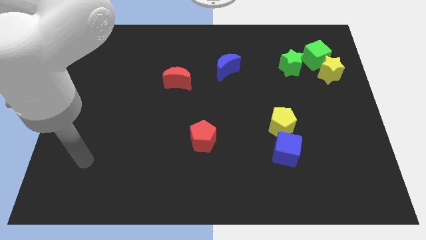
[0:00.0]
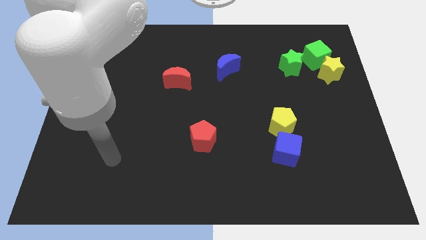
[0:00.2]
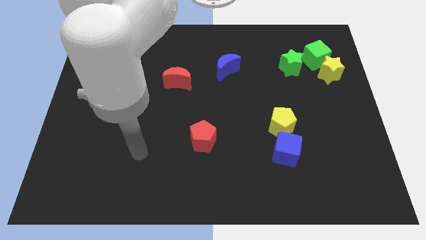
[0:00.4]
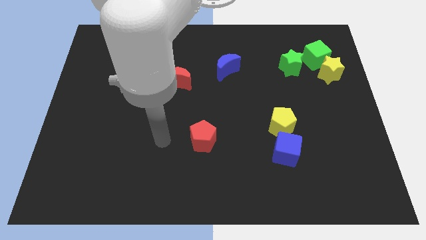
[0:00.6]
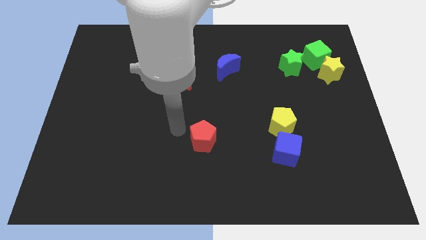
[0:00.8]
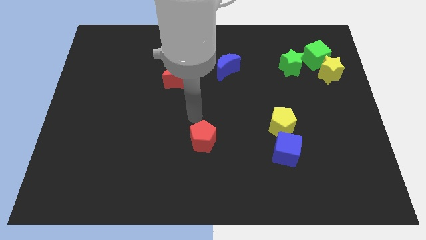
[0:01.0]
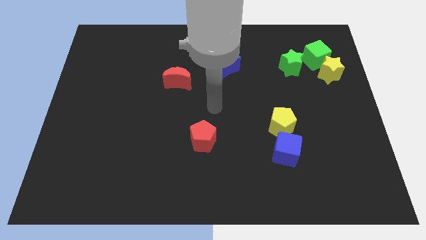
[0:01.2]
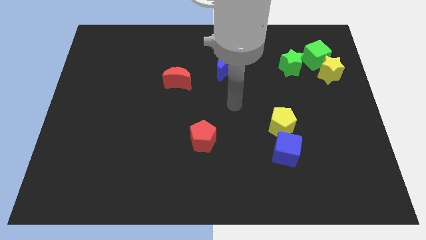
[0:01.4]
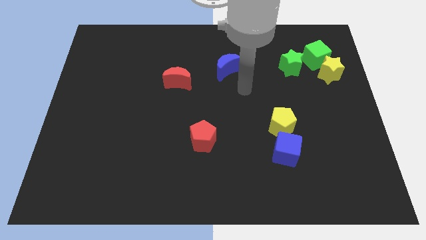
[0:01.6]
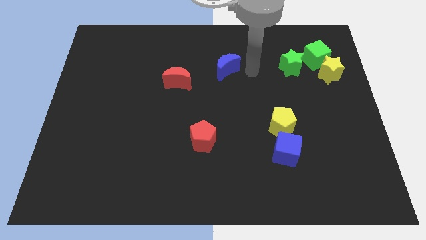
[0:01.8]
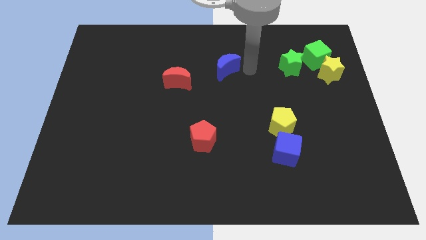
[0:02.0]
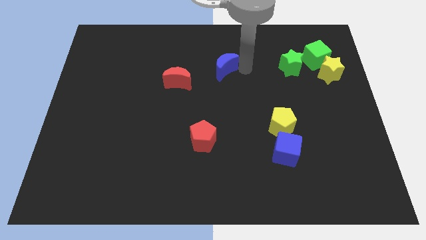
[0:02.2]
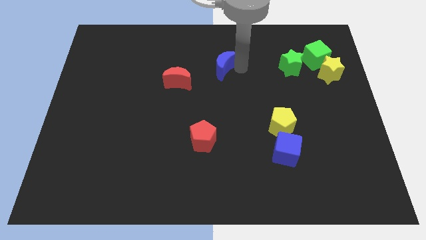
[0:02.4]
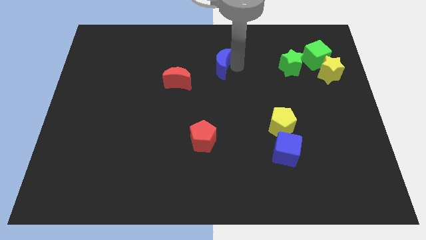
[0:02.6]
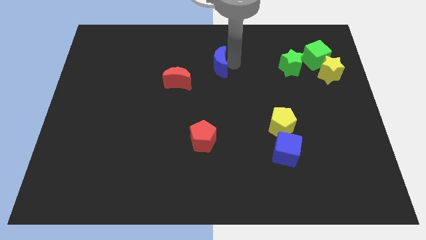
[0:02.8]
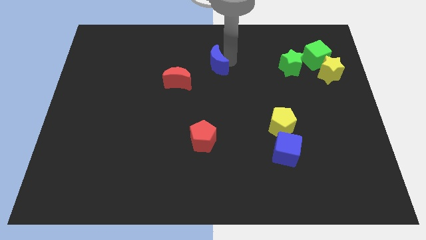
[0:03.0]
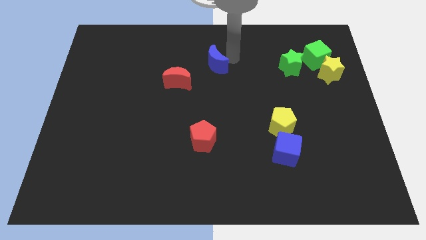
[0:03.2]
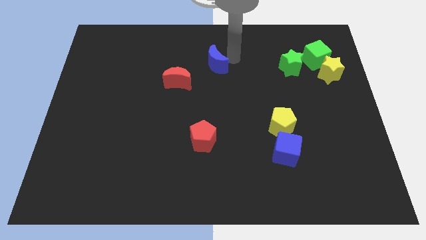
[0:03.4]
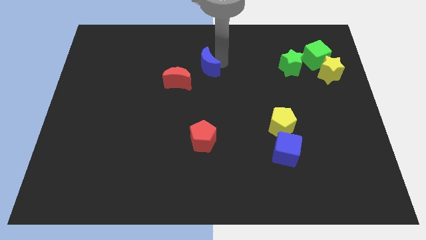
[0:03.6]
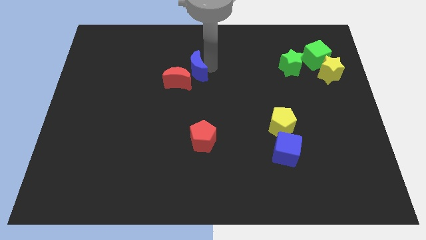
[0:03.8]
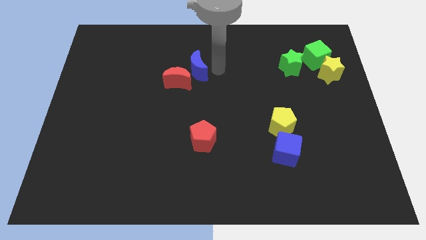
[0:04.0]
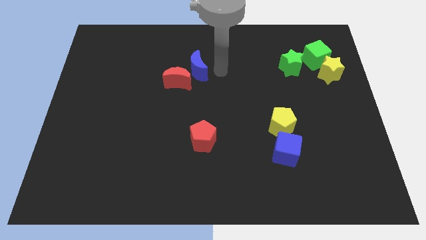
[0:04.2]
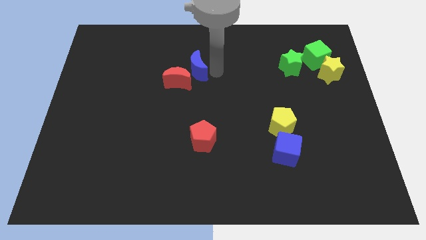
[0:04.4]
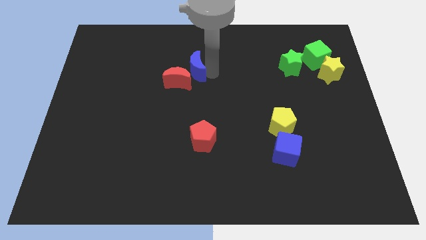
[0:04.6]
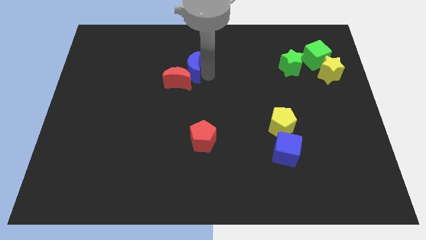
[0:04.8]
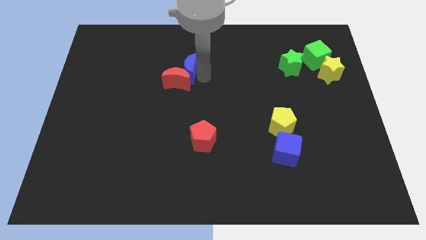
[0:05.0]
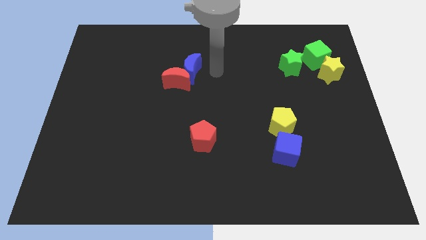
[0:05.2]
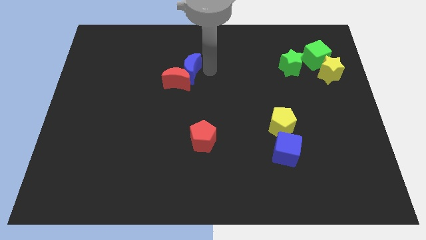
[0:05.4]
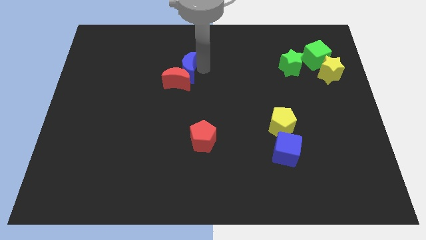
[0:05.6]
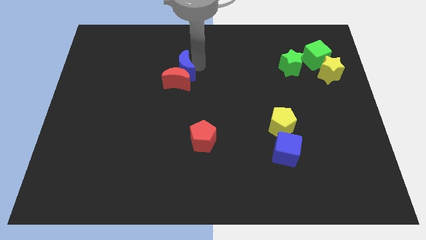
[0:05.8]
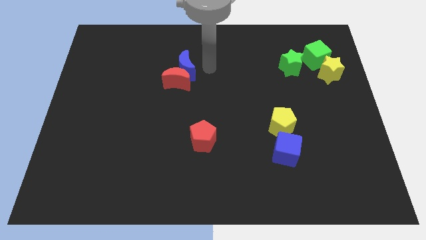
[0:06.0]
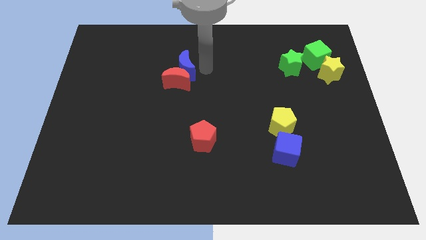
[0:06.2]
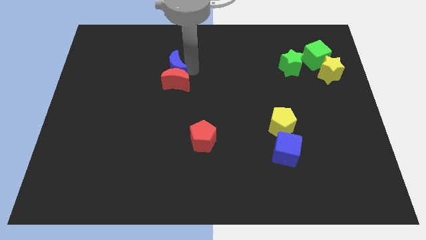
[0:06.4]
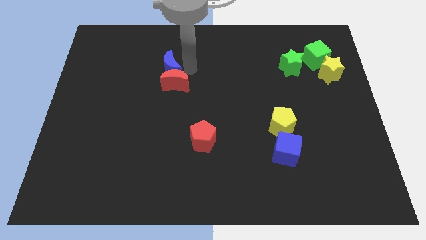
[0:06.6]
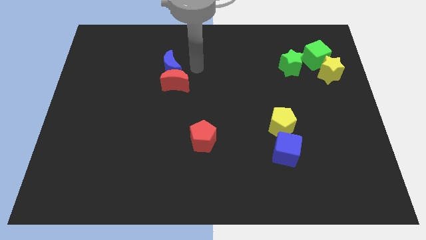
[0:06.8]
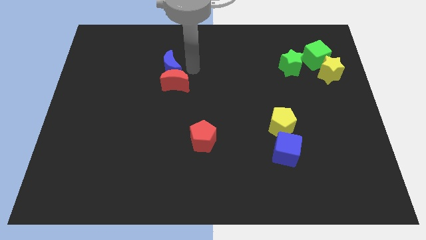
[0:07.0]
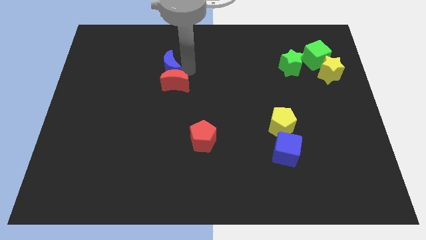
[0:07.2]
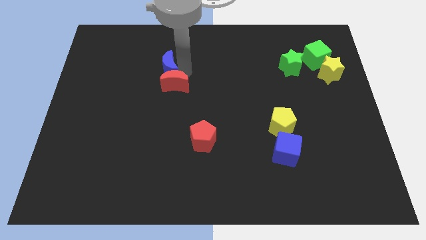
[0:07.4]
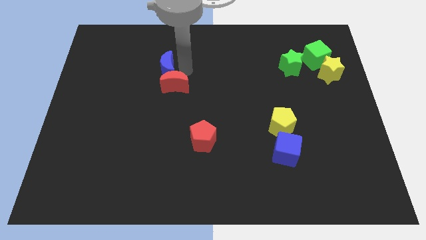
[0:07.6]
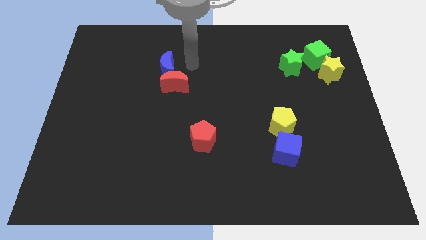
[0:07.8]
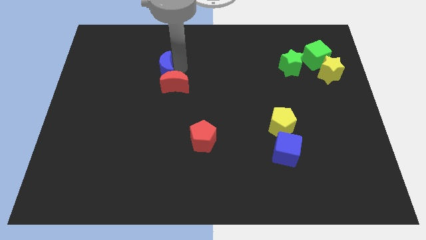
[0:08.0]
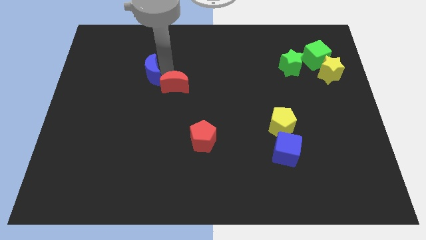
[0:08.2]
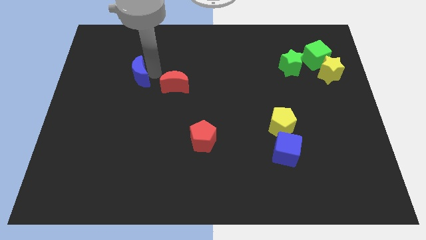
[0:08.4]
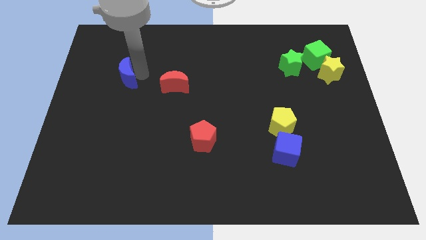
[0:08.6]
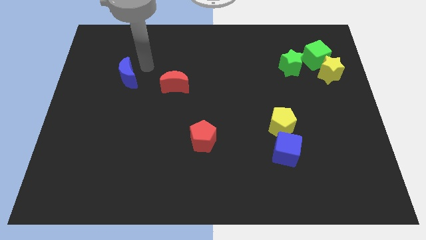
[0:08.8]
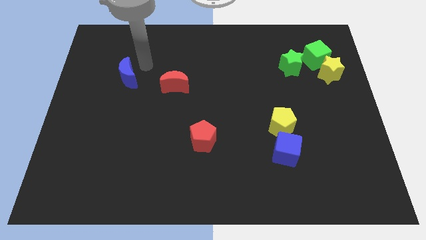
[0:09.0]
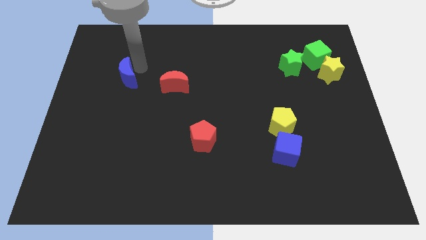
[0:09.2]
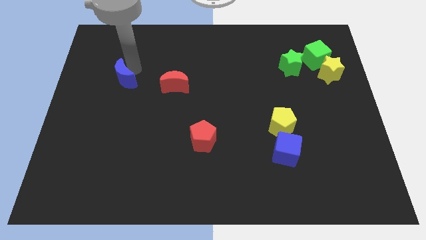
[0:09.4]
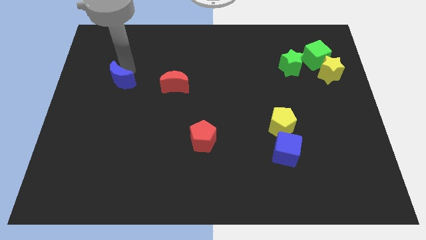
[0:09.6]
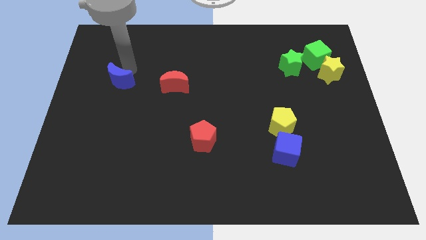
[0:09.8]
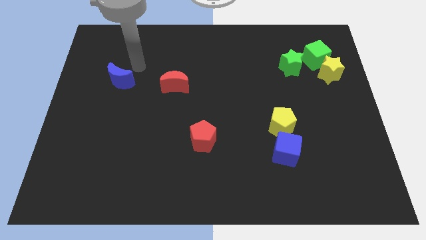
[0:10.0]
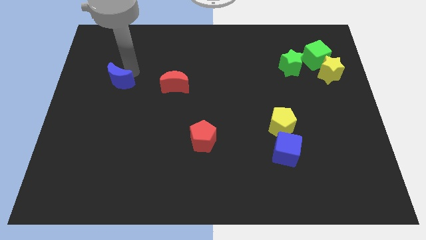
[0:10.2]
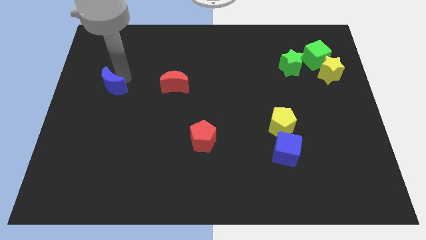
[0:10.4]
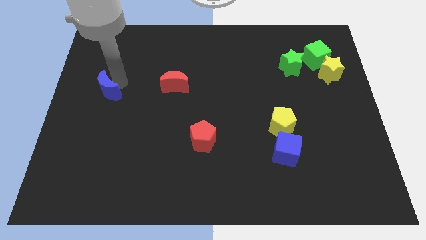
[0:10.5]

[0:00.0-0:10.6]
slide the blue moon to the left side
